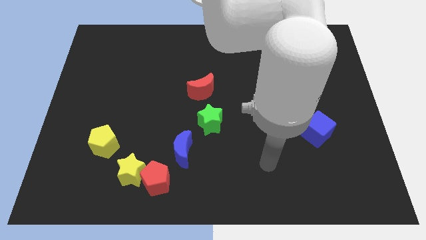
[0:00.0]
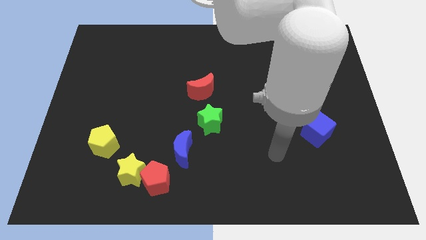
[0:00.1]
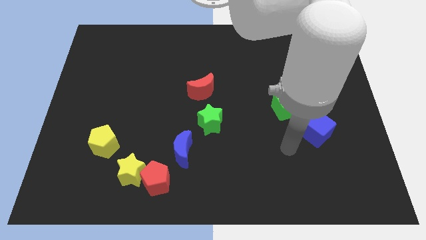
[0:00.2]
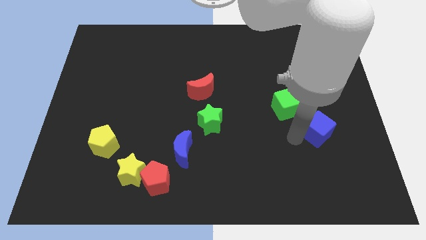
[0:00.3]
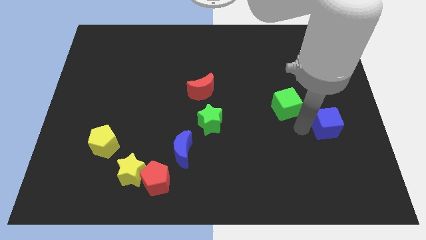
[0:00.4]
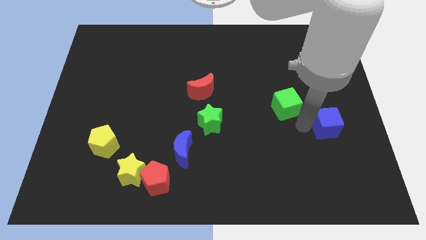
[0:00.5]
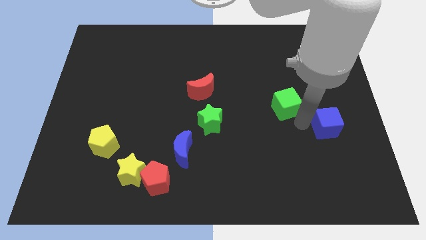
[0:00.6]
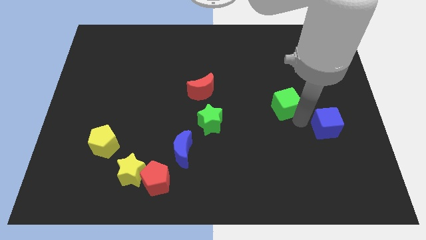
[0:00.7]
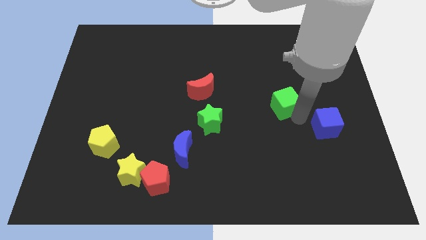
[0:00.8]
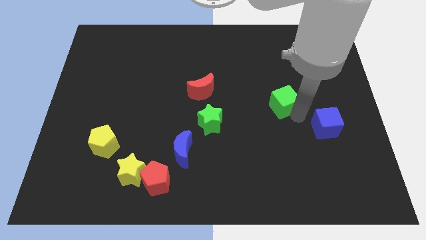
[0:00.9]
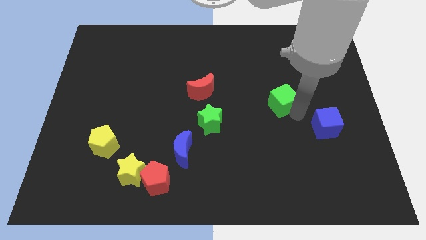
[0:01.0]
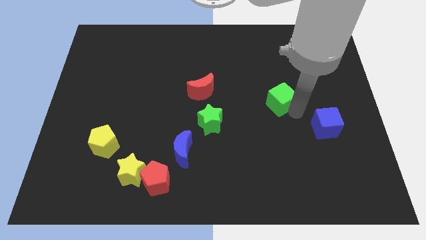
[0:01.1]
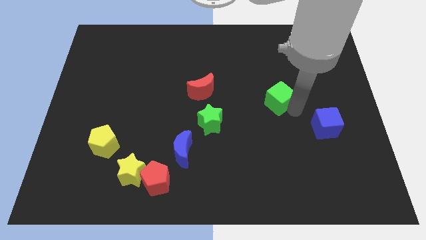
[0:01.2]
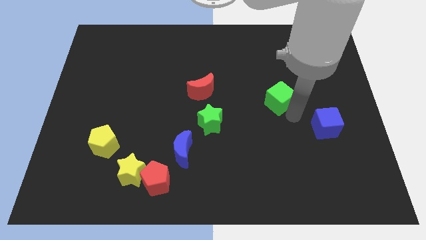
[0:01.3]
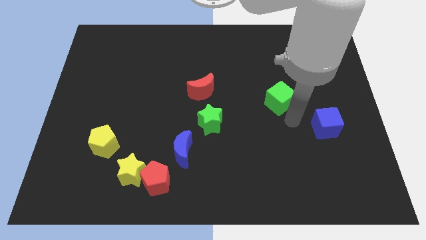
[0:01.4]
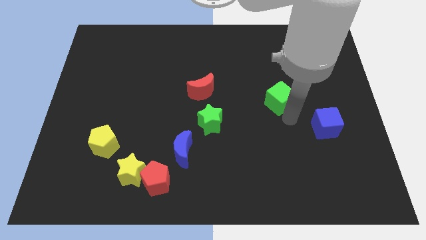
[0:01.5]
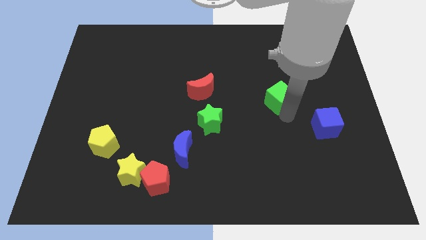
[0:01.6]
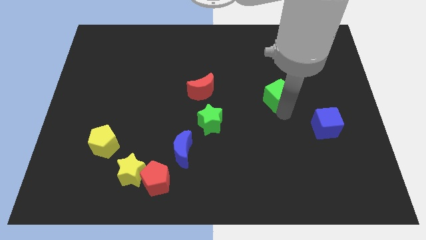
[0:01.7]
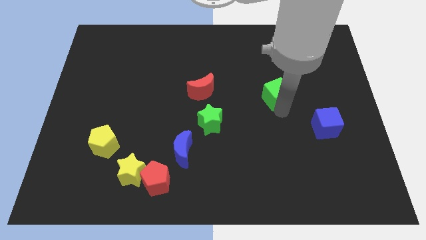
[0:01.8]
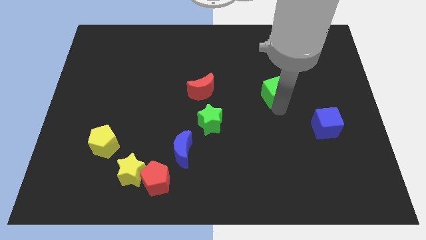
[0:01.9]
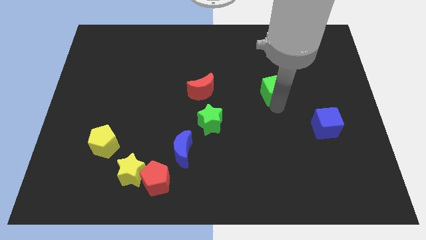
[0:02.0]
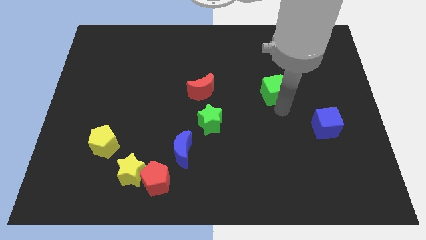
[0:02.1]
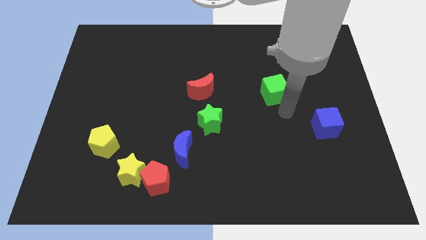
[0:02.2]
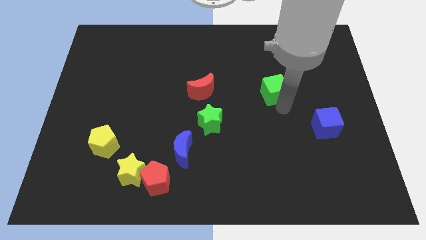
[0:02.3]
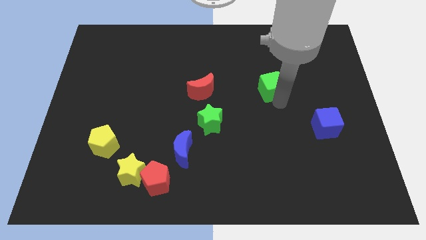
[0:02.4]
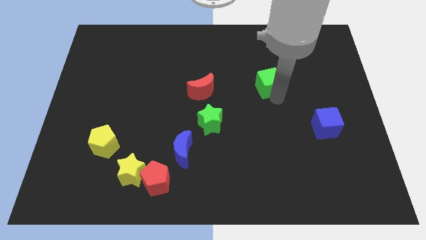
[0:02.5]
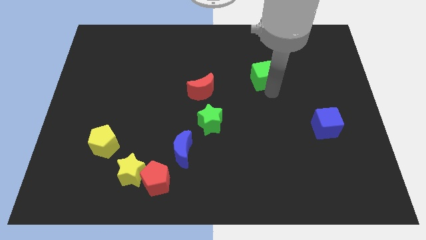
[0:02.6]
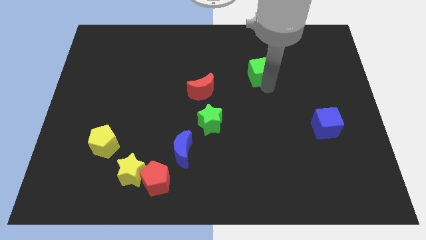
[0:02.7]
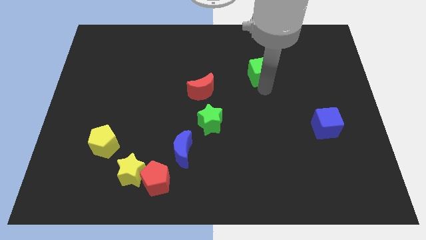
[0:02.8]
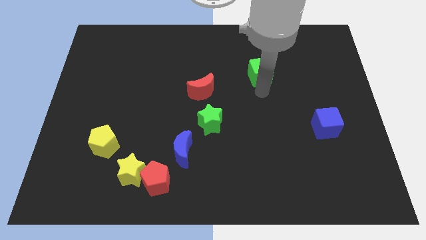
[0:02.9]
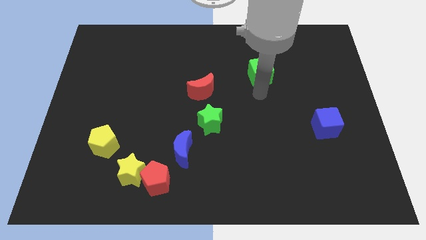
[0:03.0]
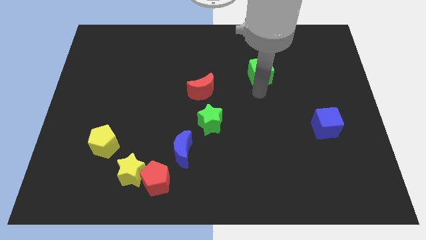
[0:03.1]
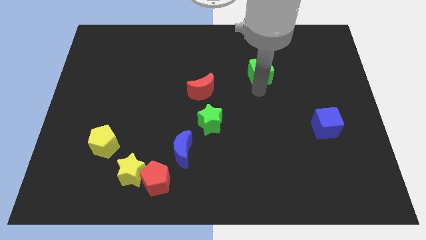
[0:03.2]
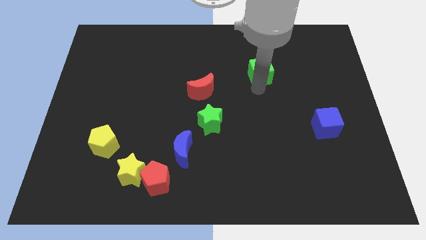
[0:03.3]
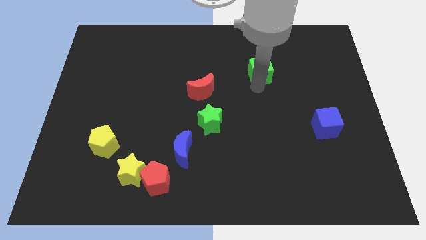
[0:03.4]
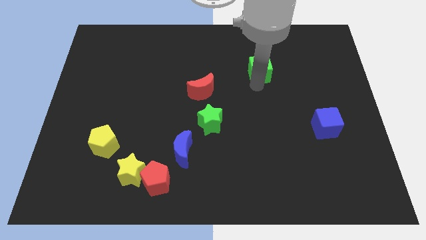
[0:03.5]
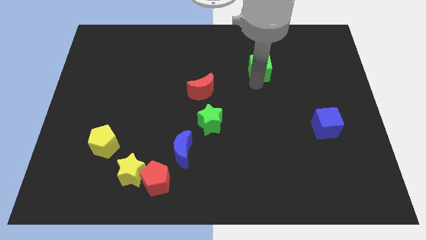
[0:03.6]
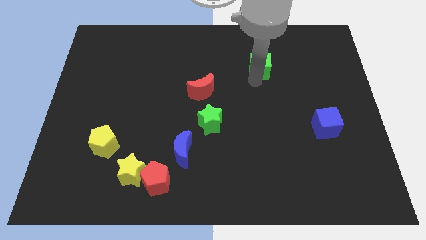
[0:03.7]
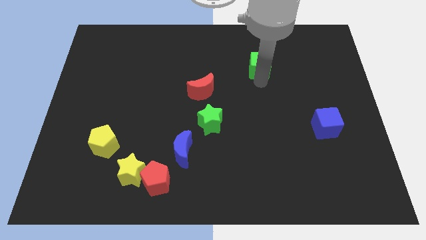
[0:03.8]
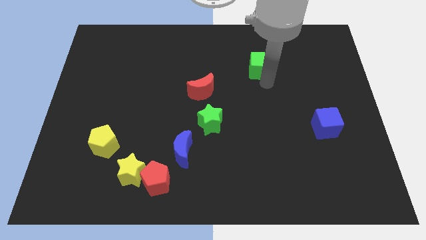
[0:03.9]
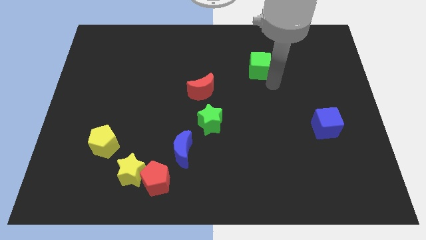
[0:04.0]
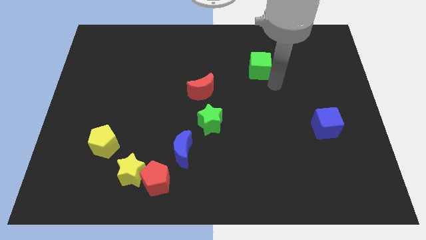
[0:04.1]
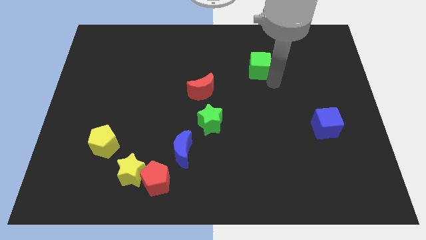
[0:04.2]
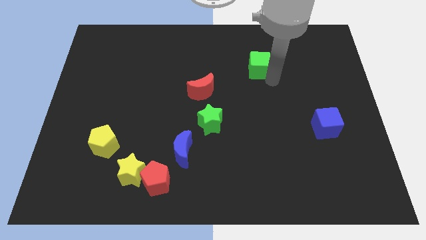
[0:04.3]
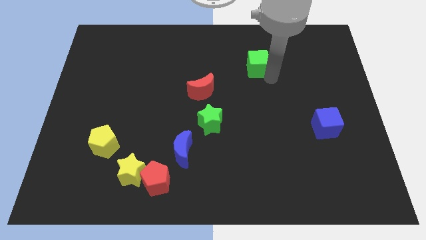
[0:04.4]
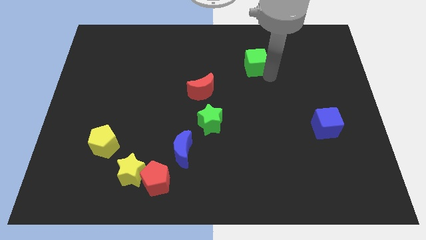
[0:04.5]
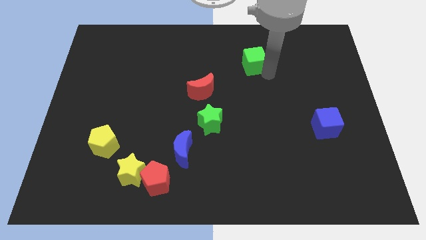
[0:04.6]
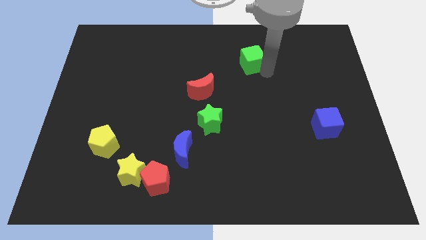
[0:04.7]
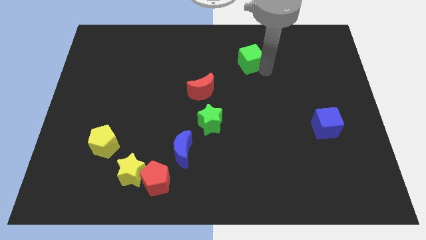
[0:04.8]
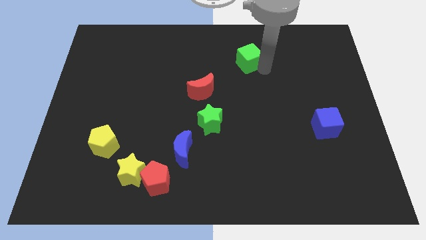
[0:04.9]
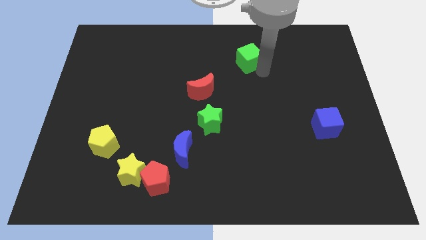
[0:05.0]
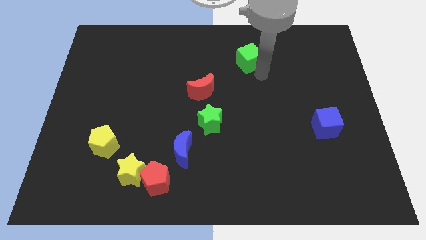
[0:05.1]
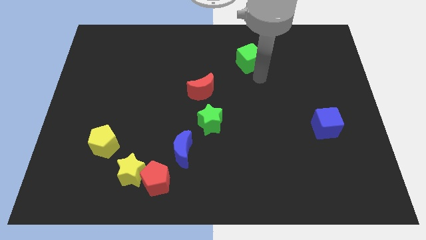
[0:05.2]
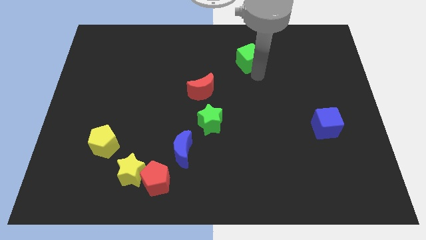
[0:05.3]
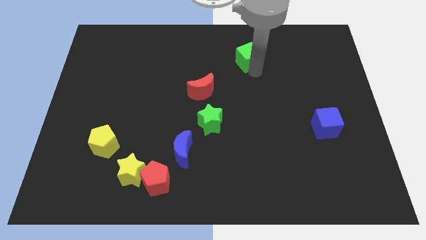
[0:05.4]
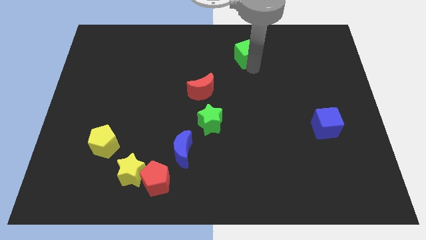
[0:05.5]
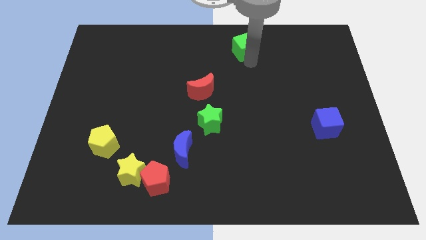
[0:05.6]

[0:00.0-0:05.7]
put the green cube to the top side
